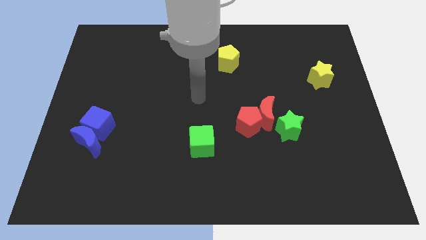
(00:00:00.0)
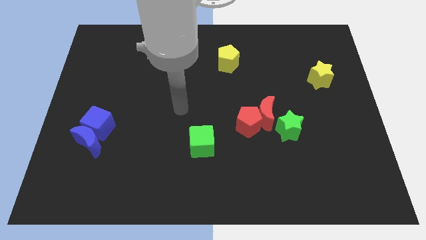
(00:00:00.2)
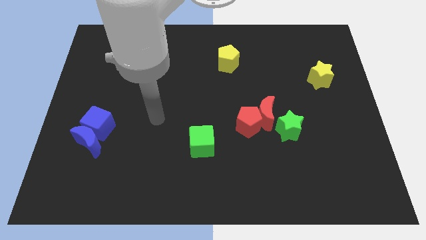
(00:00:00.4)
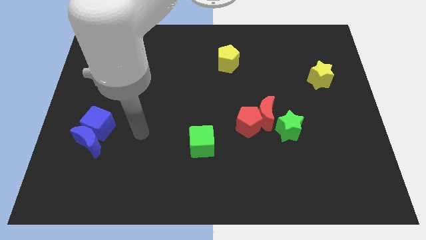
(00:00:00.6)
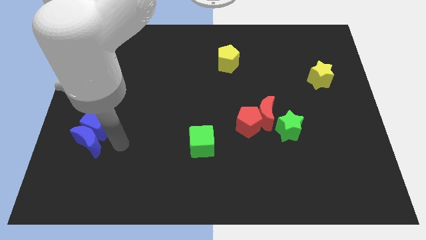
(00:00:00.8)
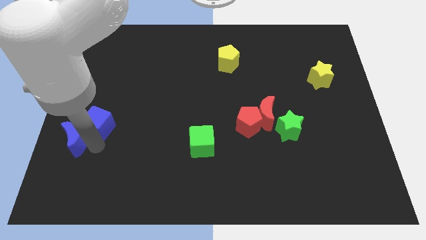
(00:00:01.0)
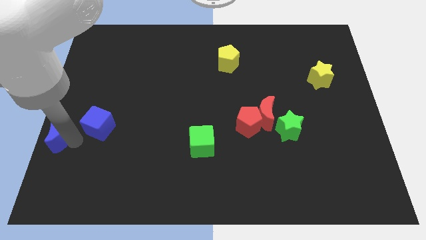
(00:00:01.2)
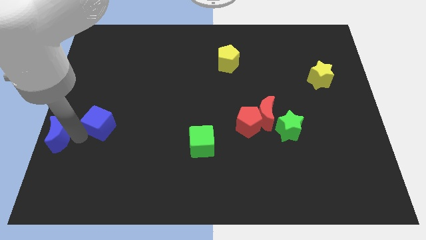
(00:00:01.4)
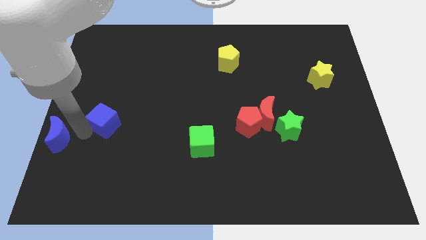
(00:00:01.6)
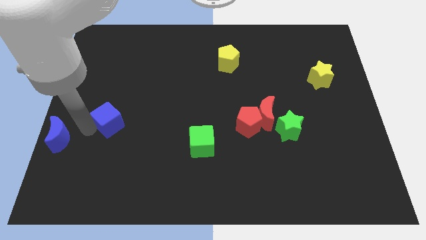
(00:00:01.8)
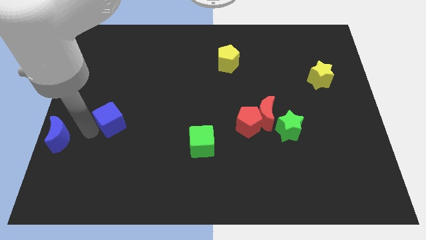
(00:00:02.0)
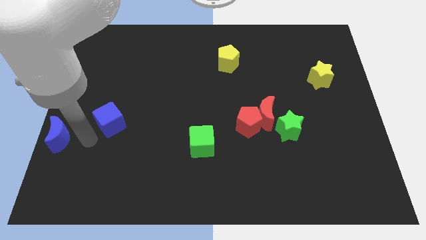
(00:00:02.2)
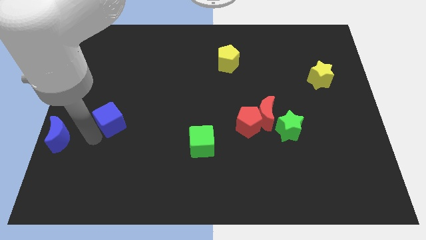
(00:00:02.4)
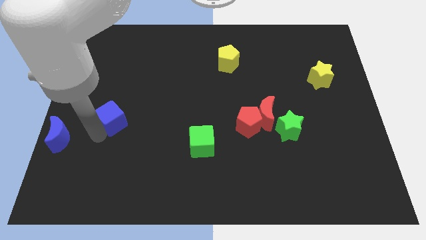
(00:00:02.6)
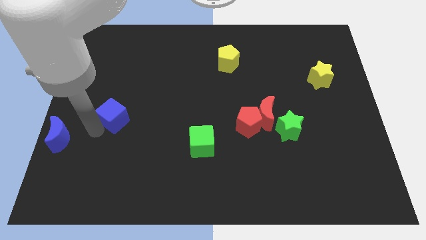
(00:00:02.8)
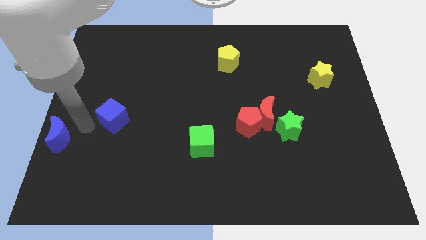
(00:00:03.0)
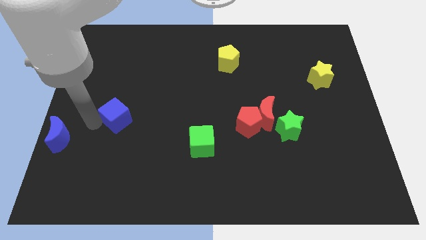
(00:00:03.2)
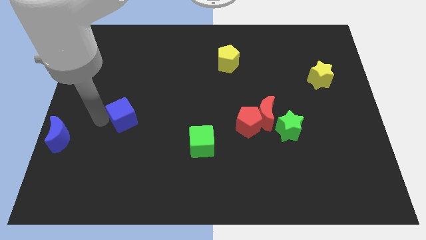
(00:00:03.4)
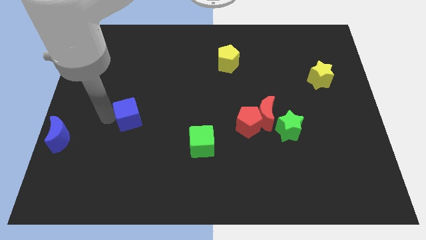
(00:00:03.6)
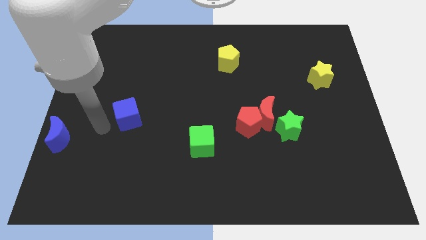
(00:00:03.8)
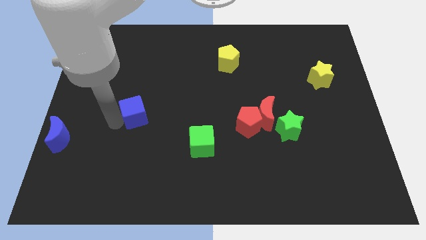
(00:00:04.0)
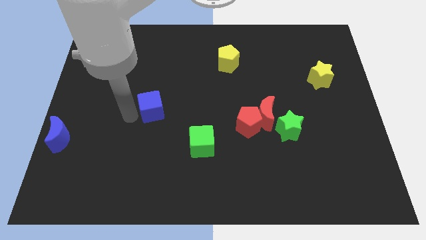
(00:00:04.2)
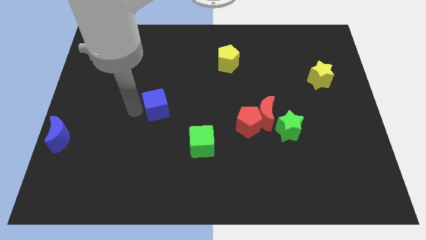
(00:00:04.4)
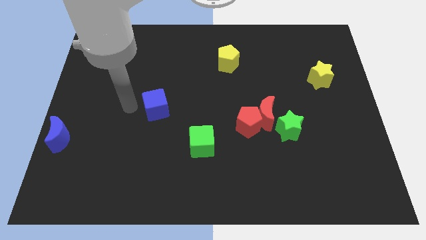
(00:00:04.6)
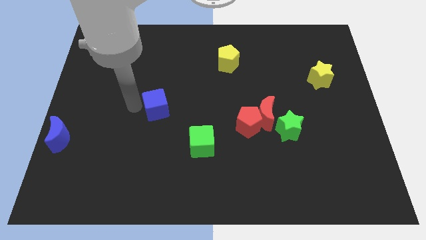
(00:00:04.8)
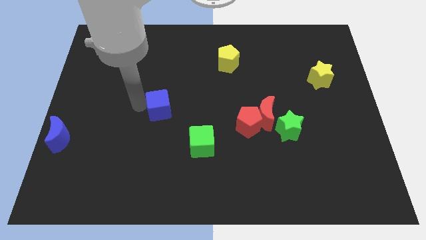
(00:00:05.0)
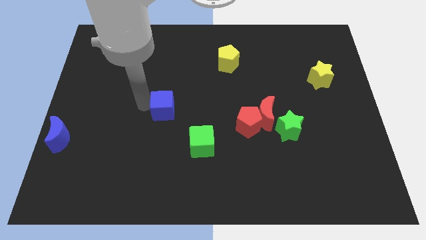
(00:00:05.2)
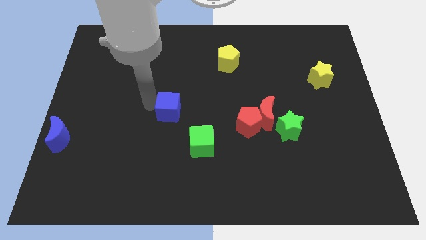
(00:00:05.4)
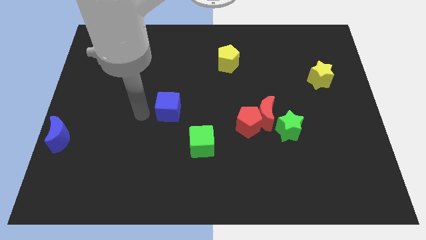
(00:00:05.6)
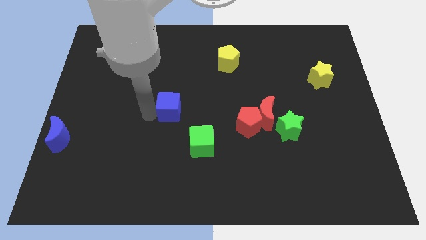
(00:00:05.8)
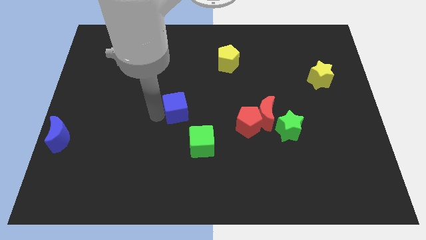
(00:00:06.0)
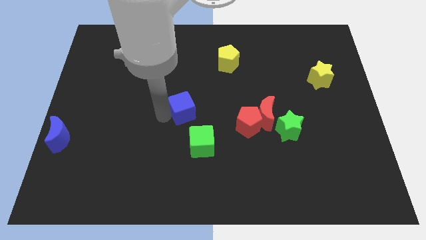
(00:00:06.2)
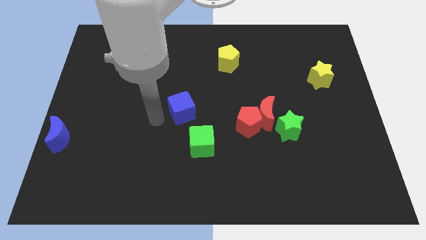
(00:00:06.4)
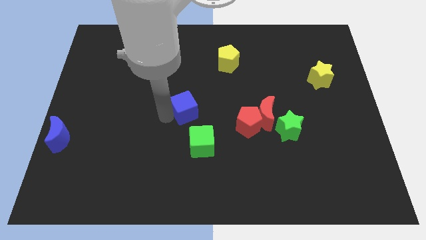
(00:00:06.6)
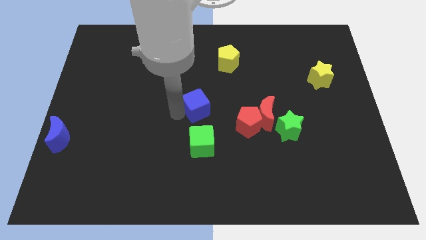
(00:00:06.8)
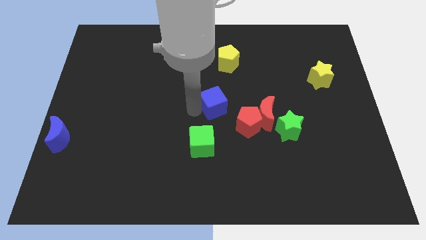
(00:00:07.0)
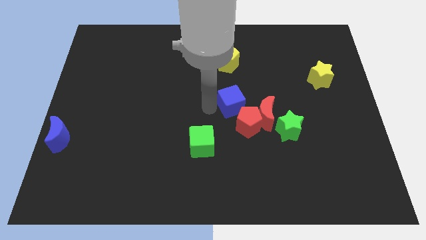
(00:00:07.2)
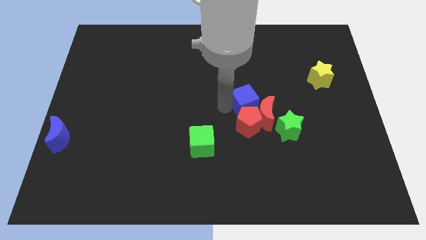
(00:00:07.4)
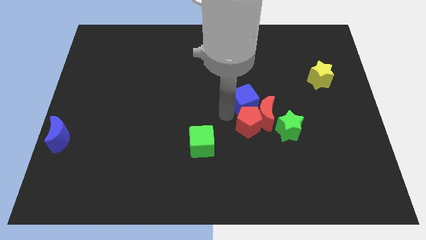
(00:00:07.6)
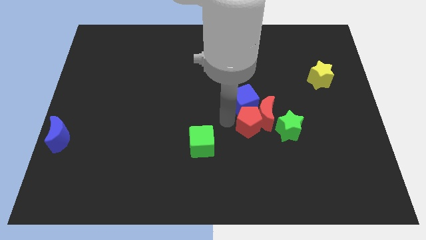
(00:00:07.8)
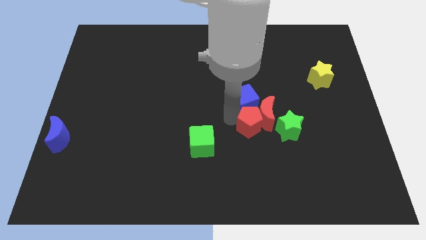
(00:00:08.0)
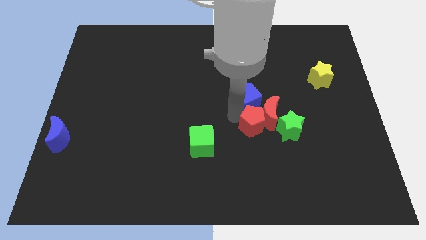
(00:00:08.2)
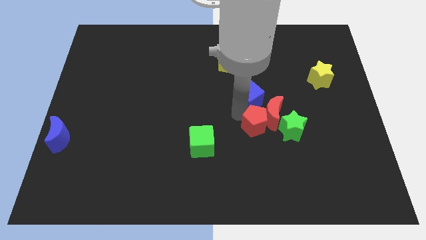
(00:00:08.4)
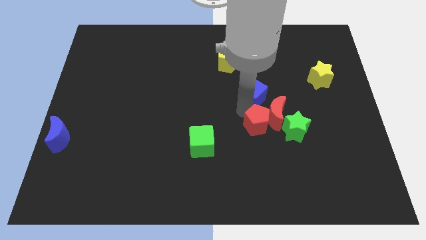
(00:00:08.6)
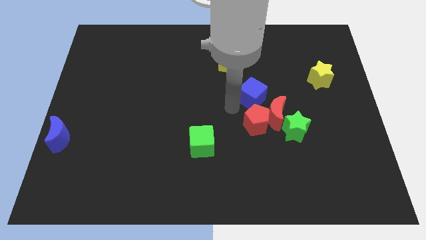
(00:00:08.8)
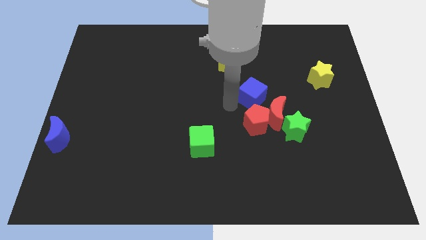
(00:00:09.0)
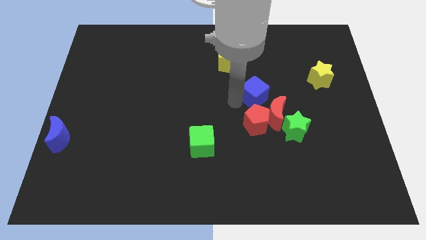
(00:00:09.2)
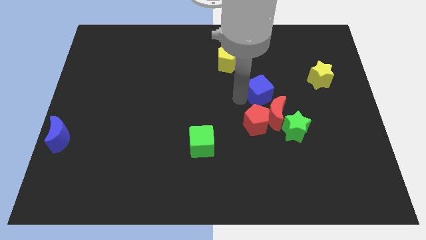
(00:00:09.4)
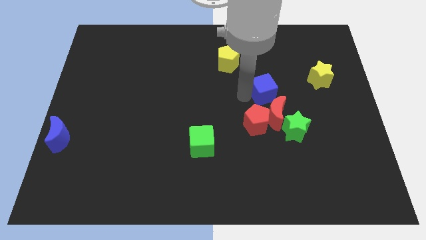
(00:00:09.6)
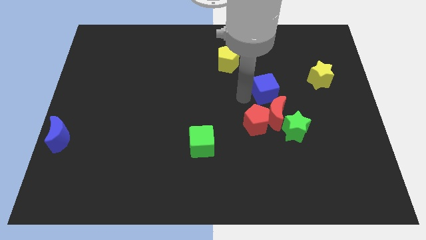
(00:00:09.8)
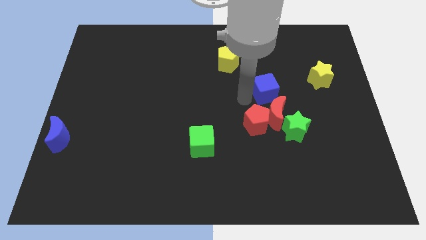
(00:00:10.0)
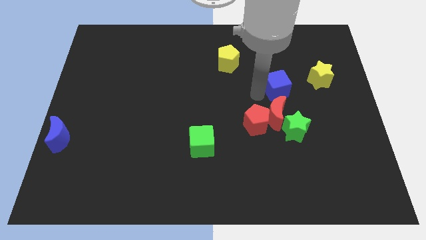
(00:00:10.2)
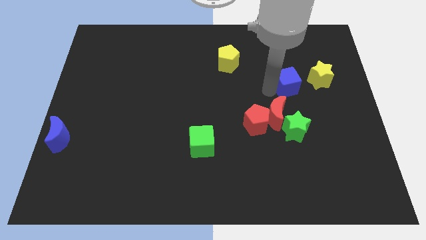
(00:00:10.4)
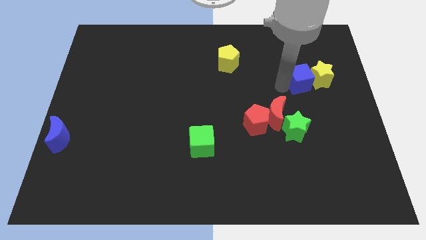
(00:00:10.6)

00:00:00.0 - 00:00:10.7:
push the blue cube close to the yellow star

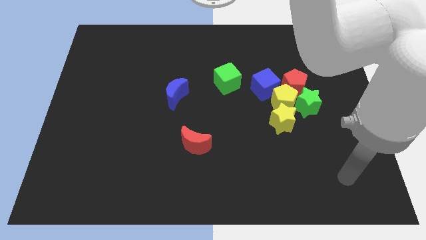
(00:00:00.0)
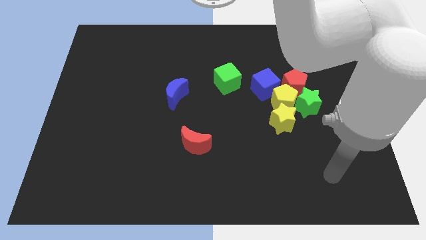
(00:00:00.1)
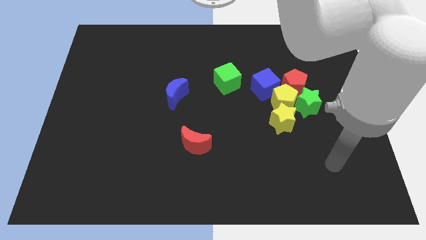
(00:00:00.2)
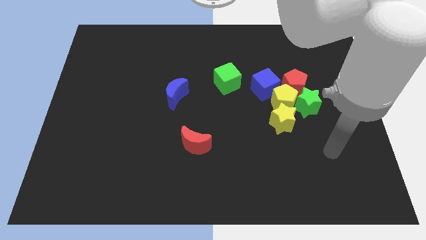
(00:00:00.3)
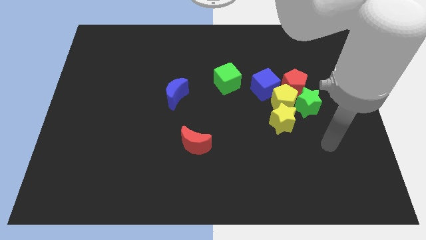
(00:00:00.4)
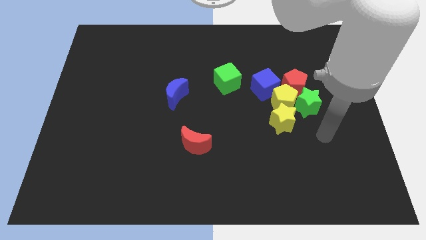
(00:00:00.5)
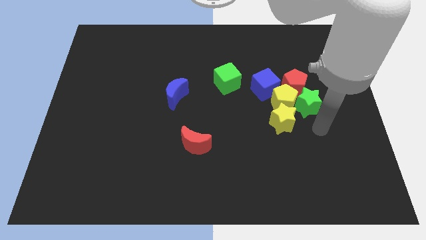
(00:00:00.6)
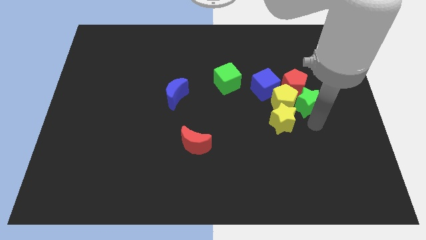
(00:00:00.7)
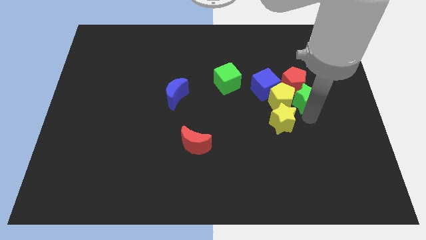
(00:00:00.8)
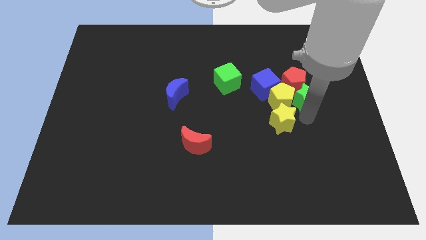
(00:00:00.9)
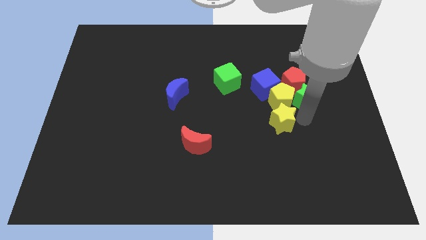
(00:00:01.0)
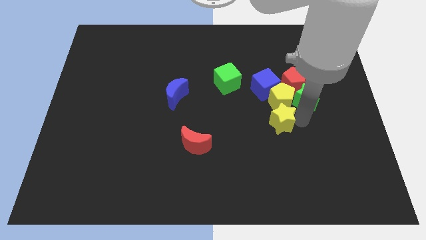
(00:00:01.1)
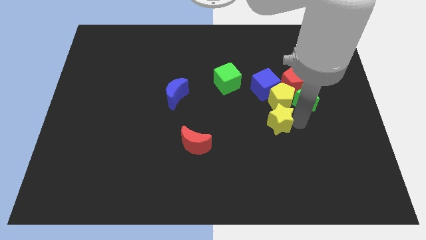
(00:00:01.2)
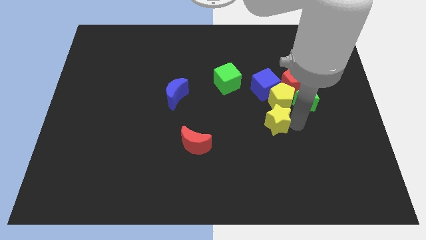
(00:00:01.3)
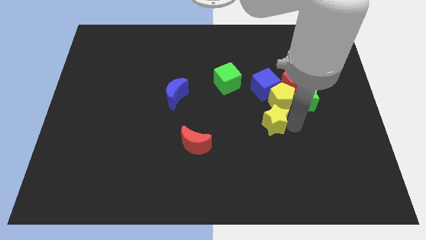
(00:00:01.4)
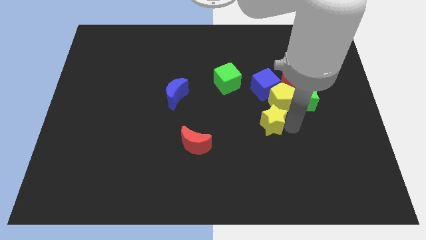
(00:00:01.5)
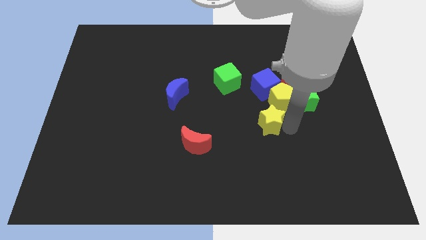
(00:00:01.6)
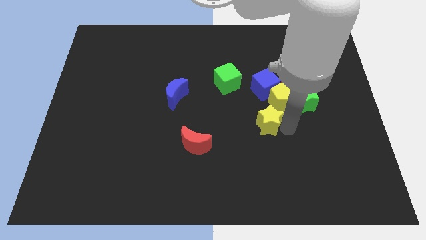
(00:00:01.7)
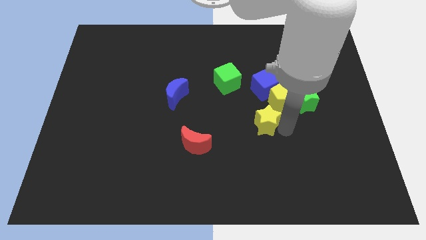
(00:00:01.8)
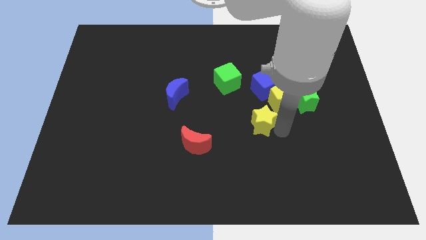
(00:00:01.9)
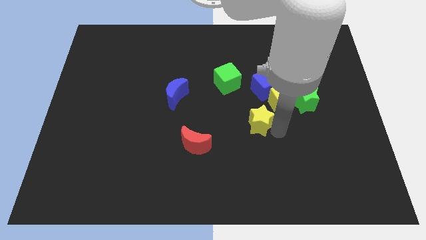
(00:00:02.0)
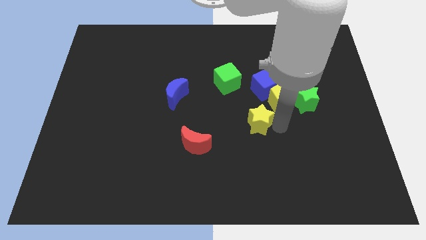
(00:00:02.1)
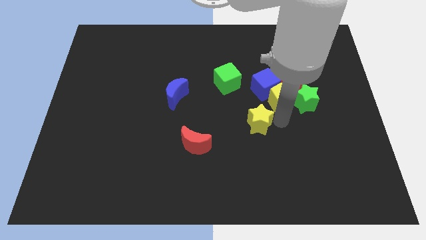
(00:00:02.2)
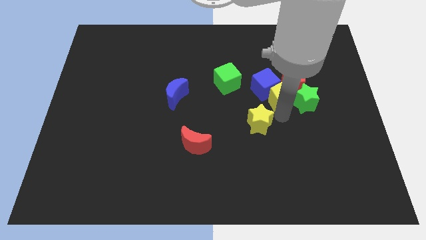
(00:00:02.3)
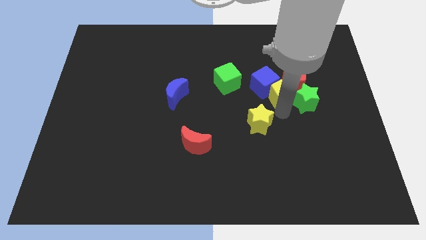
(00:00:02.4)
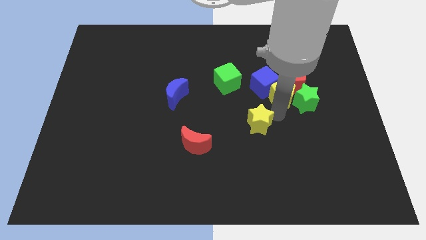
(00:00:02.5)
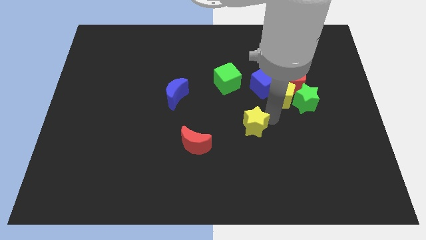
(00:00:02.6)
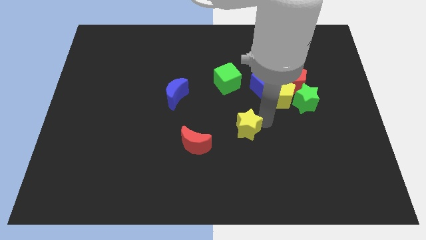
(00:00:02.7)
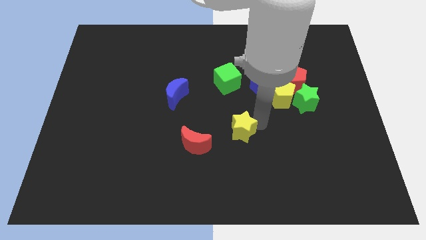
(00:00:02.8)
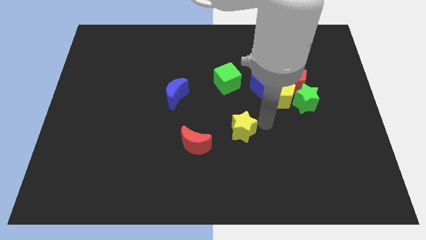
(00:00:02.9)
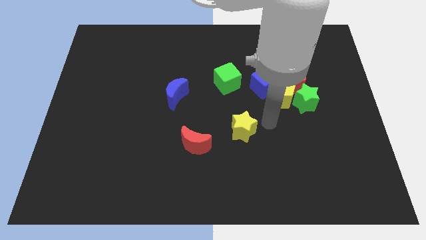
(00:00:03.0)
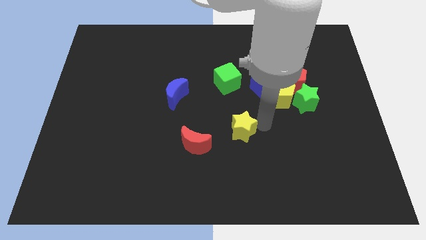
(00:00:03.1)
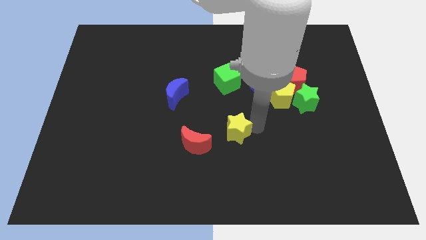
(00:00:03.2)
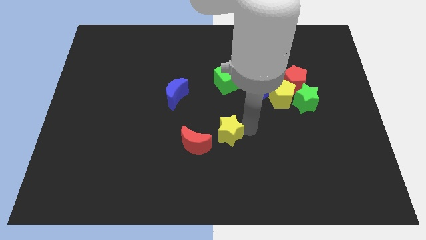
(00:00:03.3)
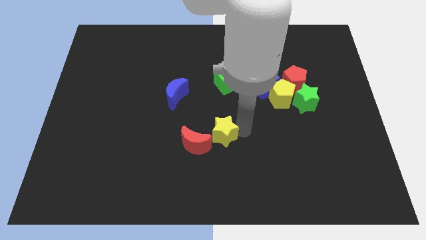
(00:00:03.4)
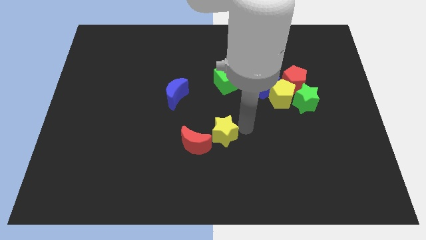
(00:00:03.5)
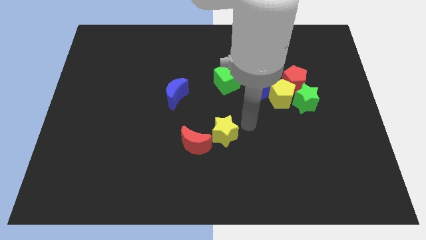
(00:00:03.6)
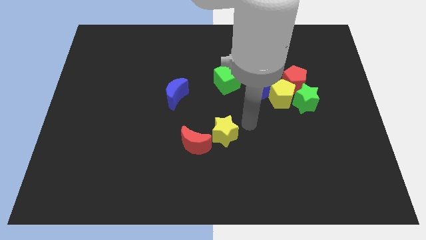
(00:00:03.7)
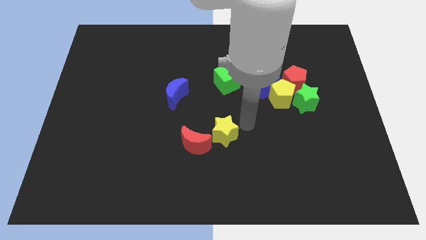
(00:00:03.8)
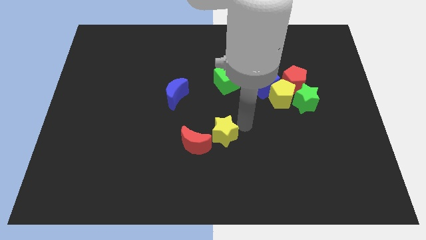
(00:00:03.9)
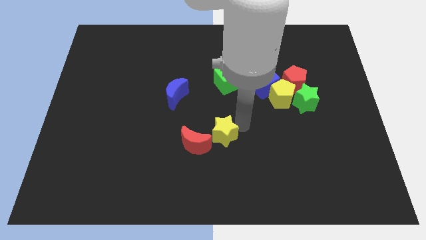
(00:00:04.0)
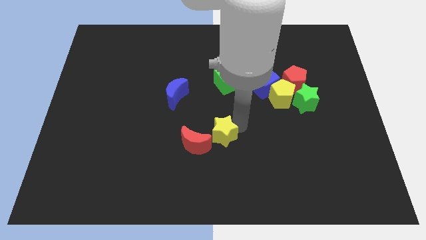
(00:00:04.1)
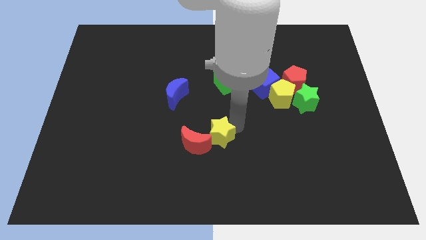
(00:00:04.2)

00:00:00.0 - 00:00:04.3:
move the yellow star close to the red moon
